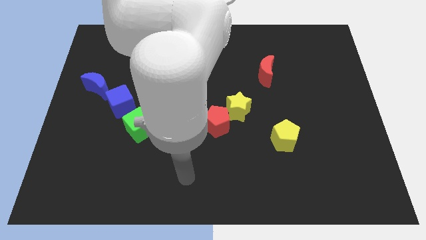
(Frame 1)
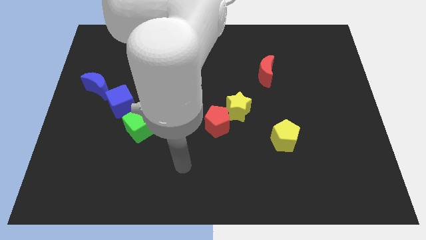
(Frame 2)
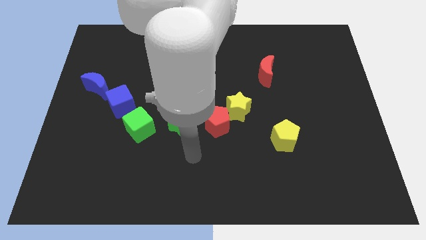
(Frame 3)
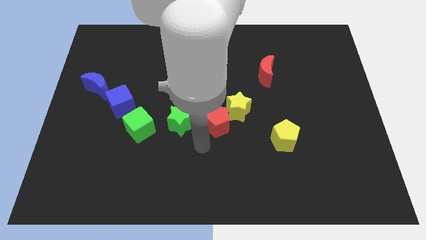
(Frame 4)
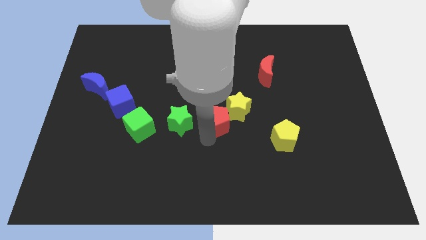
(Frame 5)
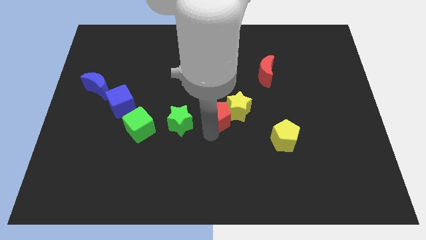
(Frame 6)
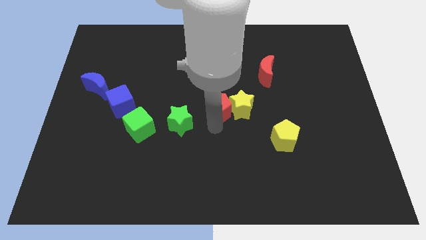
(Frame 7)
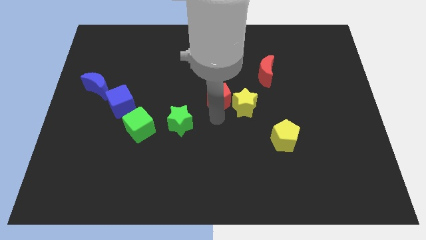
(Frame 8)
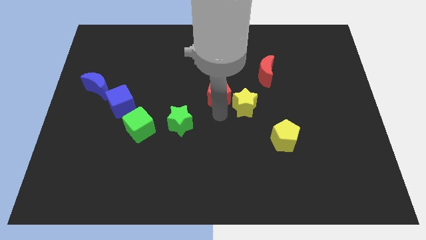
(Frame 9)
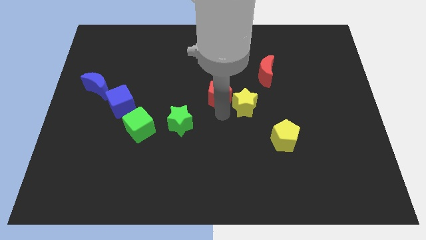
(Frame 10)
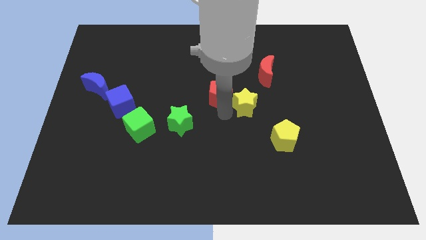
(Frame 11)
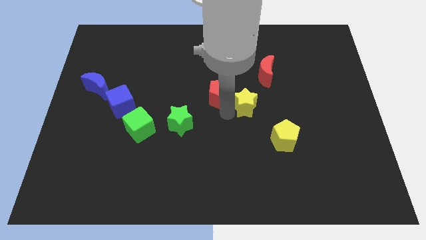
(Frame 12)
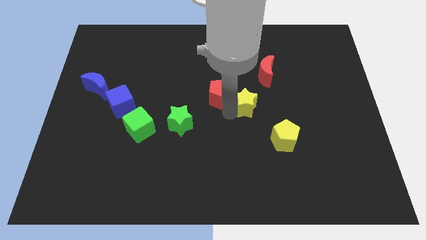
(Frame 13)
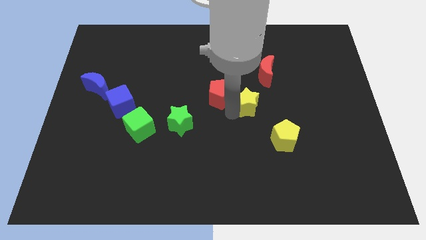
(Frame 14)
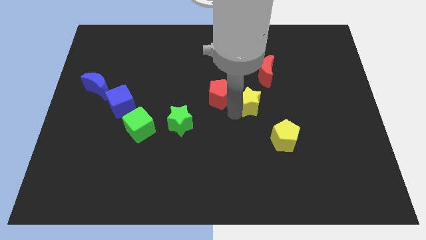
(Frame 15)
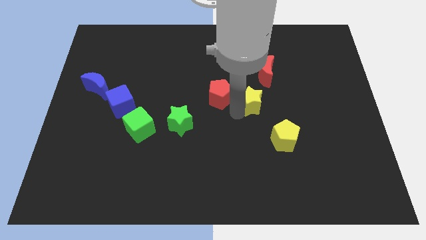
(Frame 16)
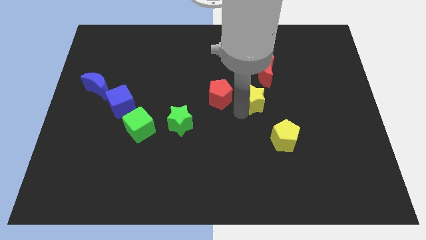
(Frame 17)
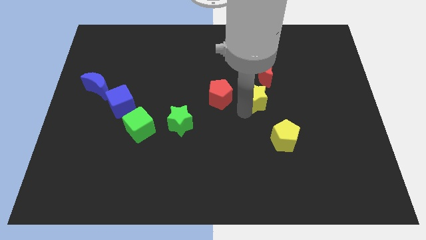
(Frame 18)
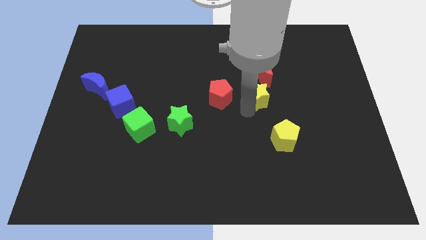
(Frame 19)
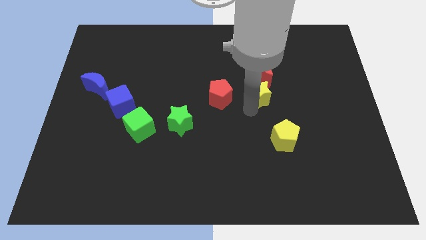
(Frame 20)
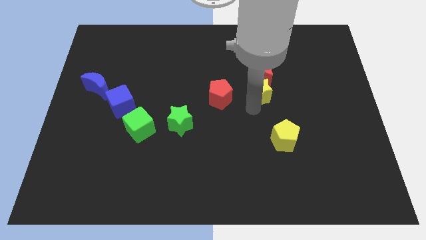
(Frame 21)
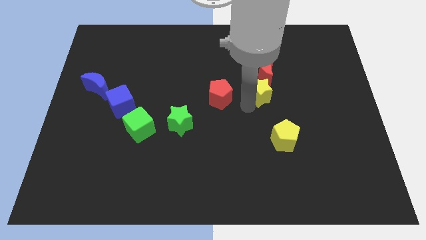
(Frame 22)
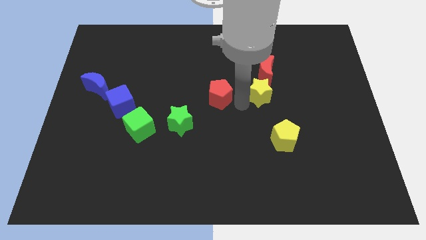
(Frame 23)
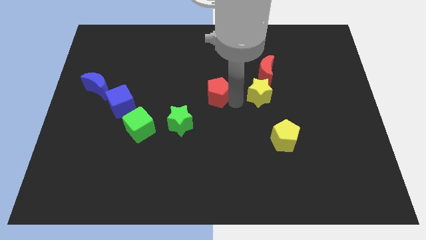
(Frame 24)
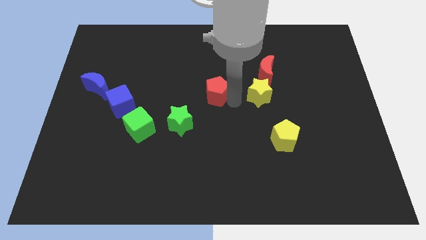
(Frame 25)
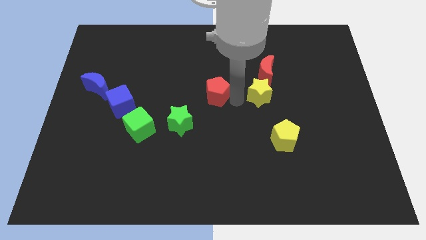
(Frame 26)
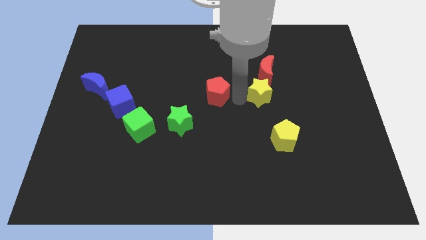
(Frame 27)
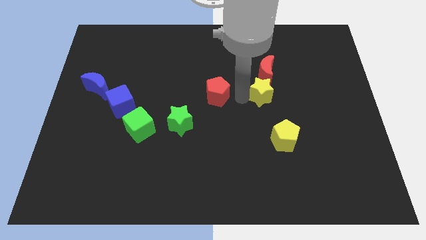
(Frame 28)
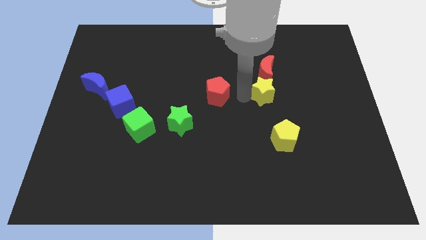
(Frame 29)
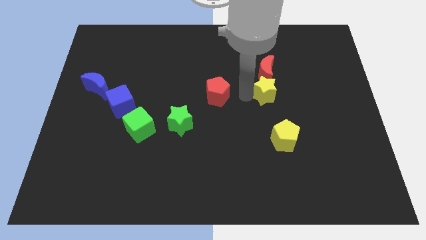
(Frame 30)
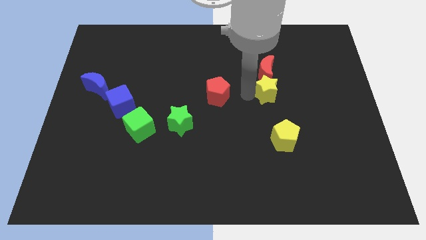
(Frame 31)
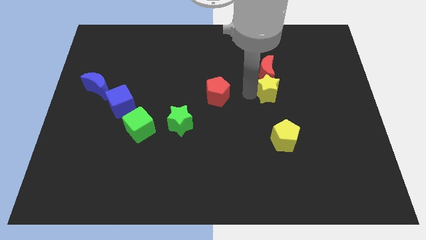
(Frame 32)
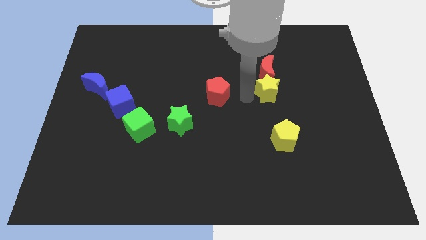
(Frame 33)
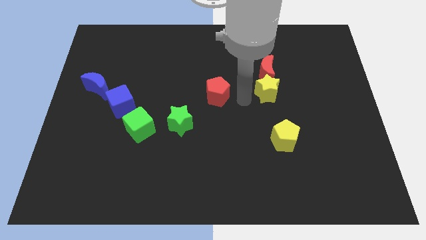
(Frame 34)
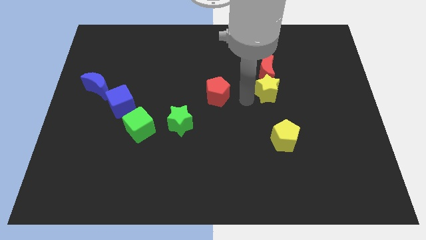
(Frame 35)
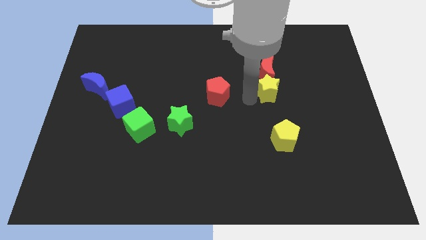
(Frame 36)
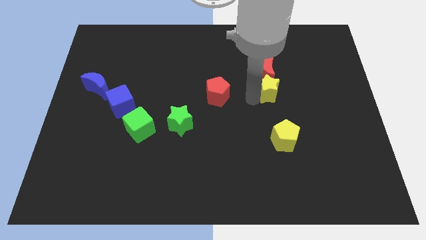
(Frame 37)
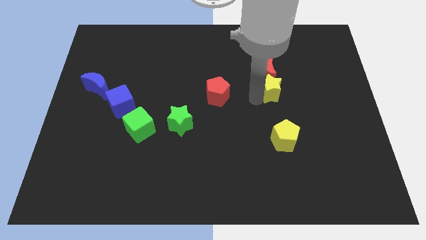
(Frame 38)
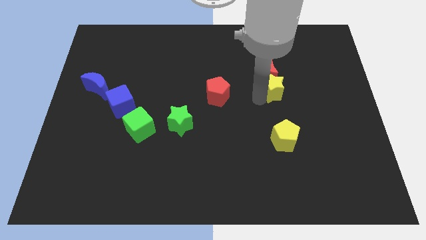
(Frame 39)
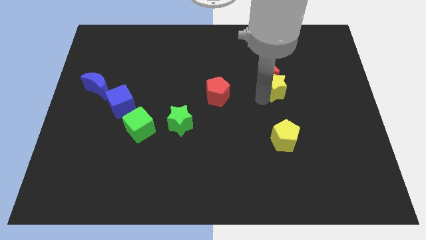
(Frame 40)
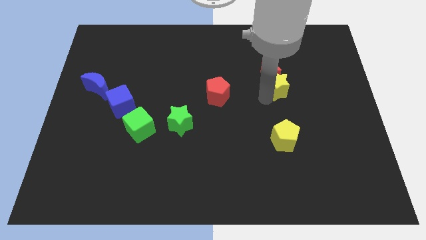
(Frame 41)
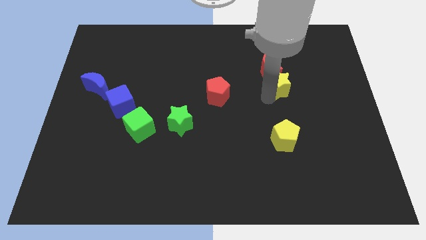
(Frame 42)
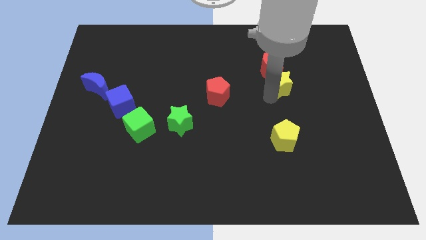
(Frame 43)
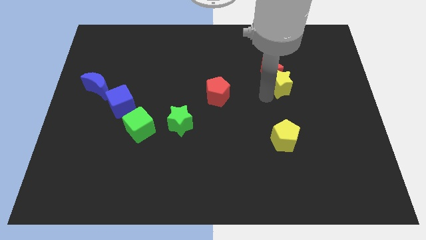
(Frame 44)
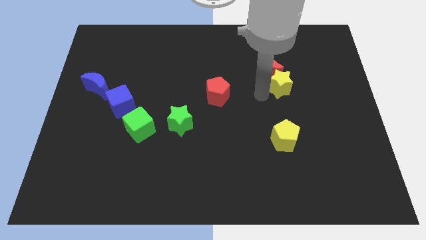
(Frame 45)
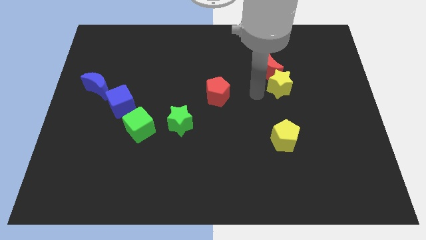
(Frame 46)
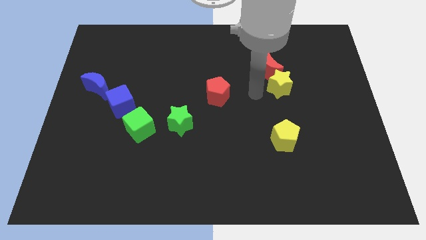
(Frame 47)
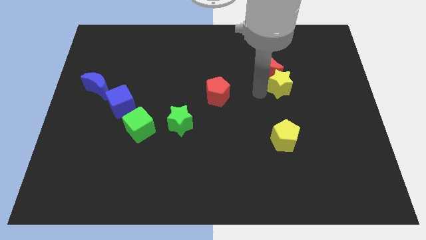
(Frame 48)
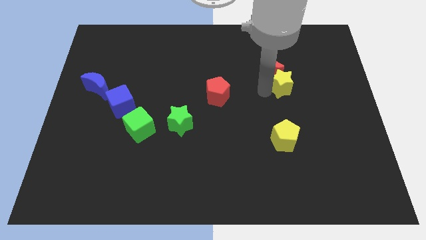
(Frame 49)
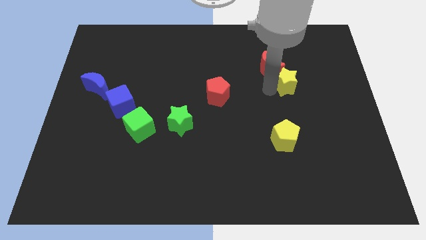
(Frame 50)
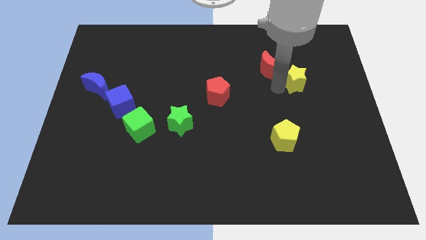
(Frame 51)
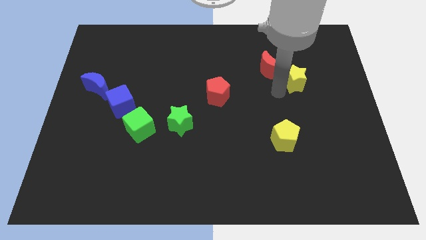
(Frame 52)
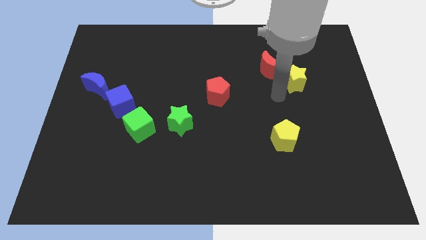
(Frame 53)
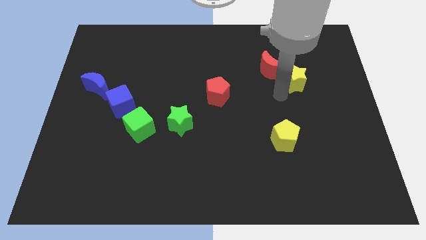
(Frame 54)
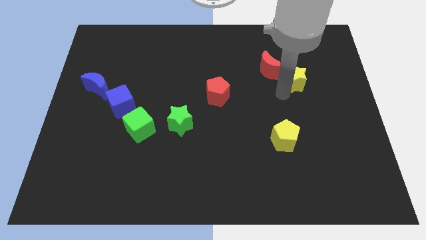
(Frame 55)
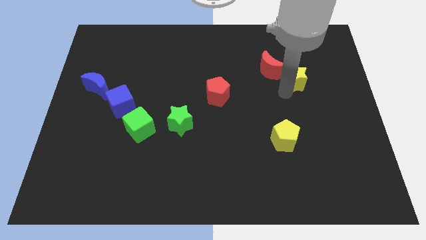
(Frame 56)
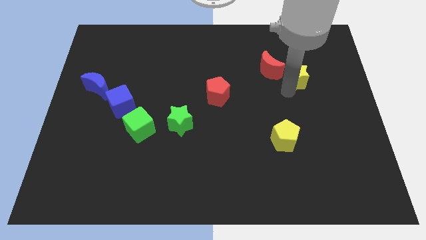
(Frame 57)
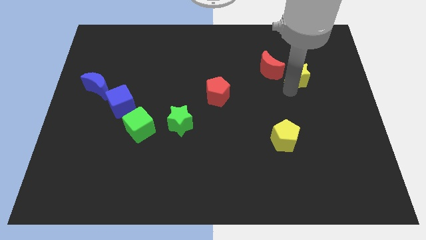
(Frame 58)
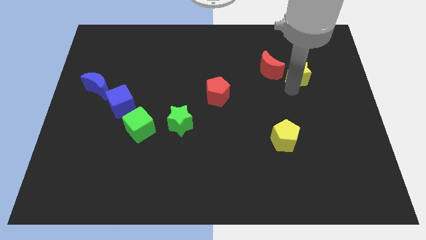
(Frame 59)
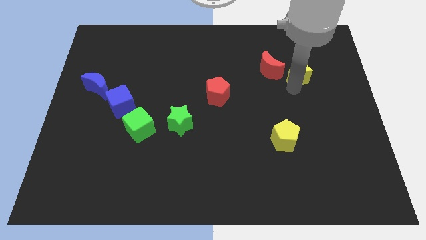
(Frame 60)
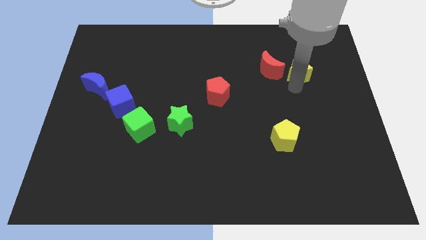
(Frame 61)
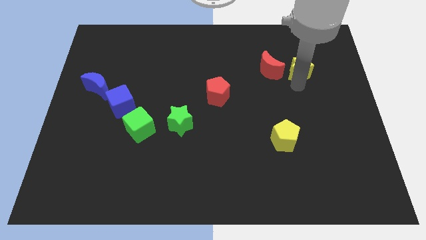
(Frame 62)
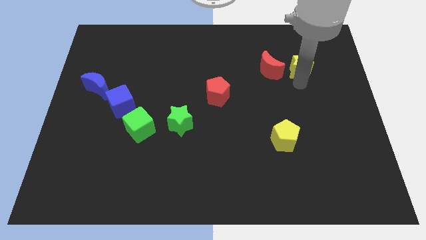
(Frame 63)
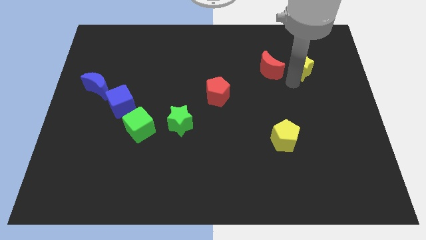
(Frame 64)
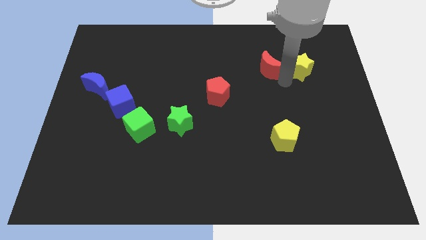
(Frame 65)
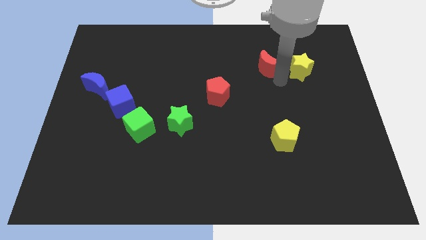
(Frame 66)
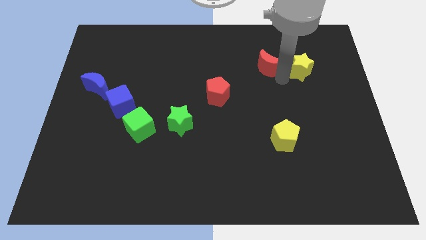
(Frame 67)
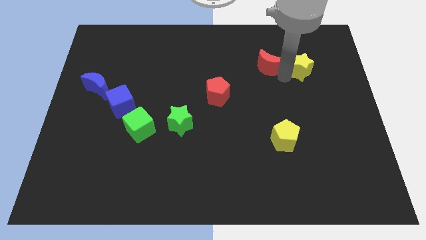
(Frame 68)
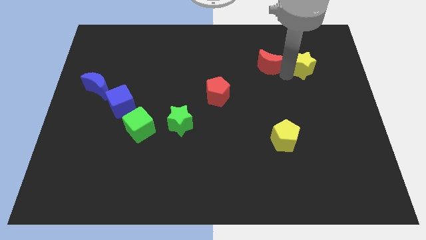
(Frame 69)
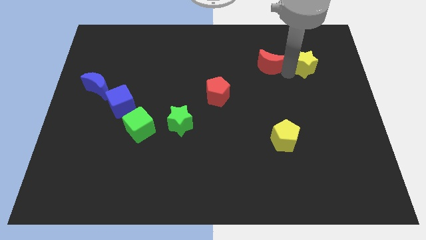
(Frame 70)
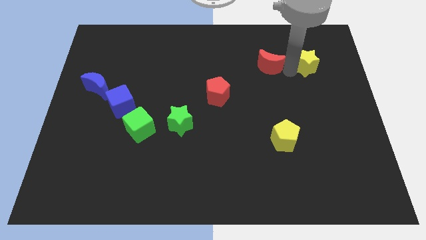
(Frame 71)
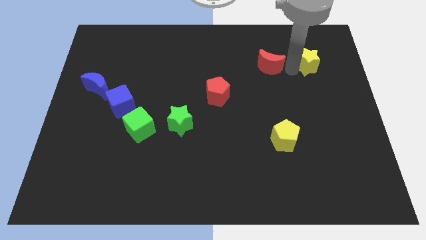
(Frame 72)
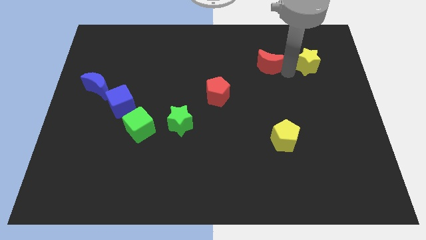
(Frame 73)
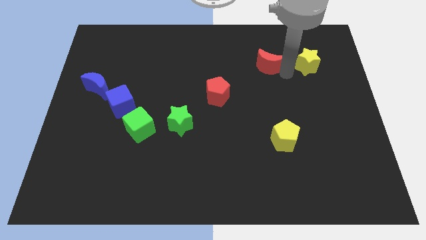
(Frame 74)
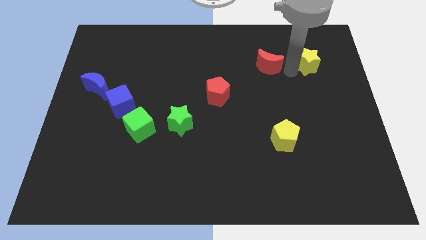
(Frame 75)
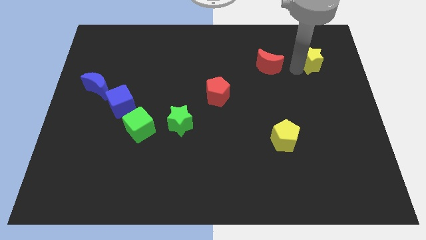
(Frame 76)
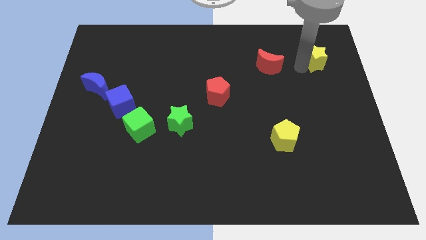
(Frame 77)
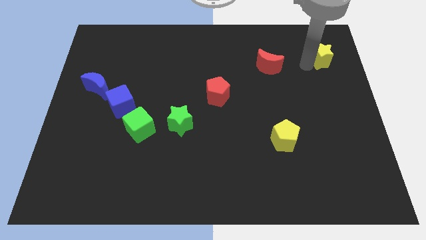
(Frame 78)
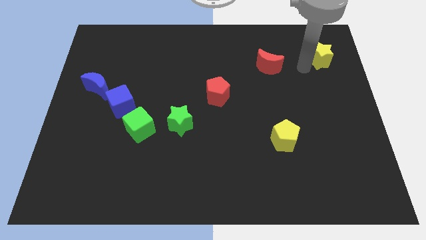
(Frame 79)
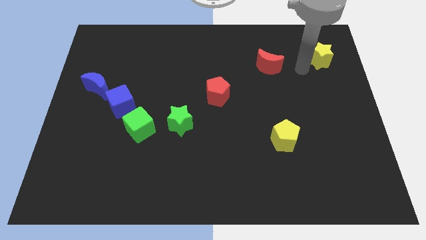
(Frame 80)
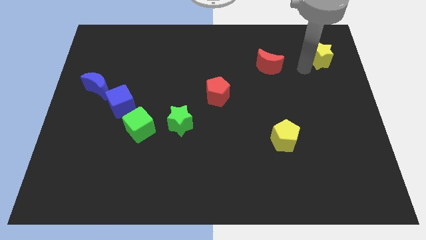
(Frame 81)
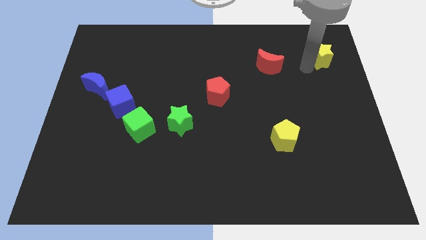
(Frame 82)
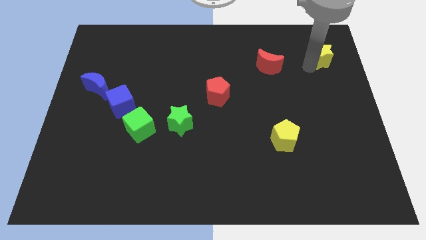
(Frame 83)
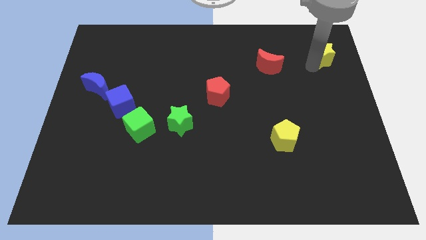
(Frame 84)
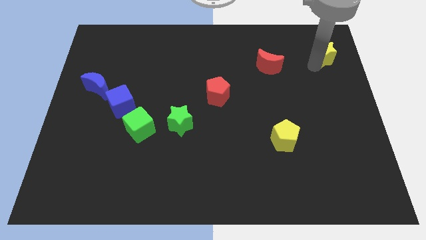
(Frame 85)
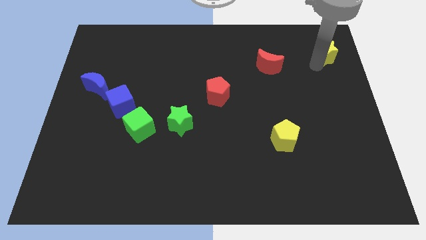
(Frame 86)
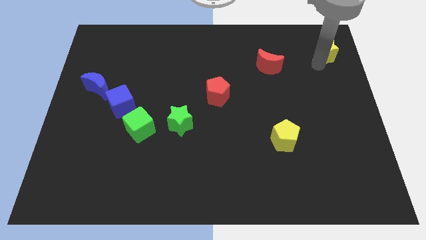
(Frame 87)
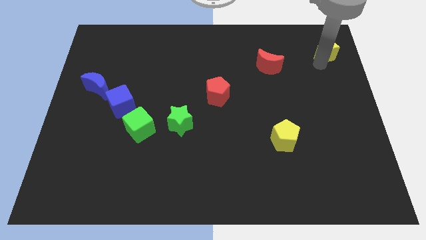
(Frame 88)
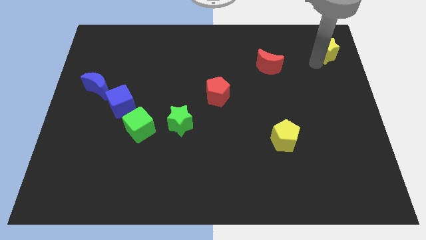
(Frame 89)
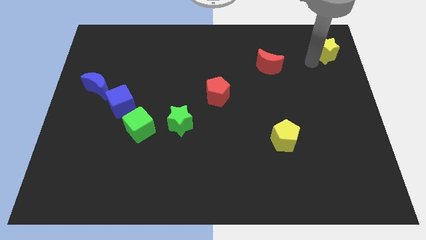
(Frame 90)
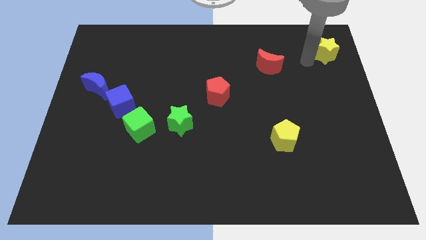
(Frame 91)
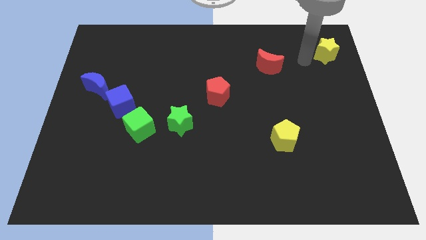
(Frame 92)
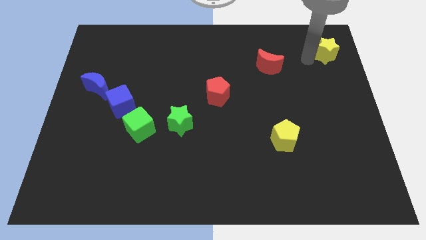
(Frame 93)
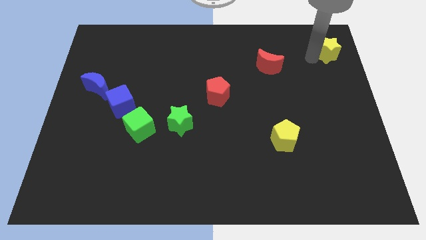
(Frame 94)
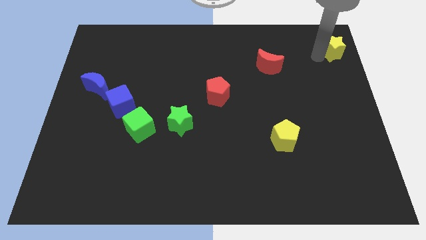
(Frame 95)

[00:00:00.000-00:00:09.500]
push the yellow star to the top right of the board
